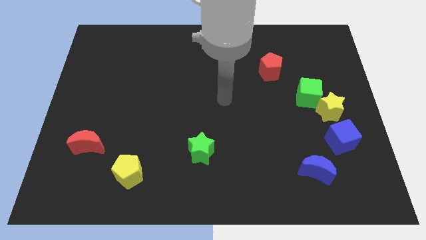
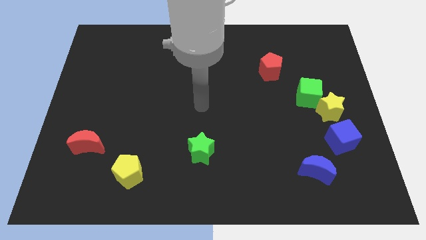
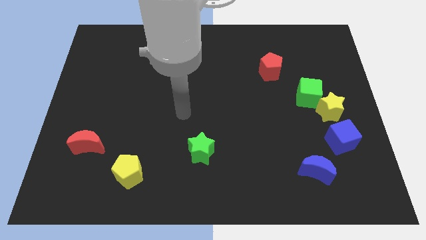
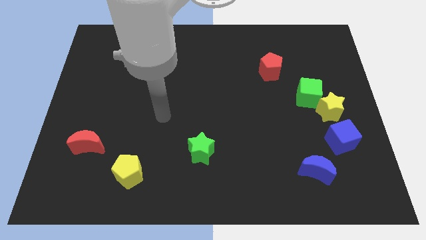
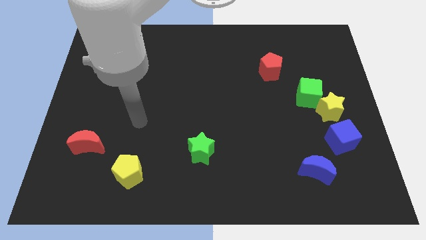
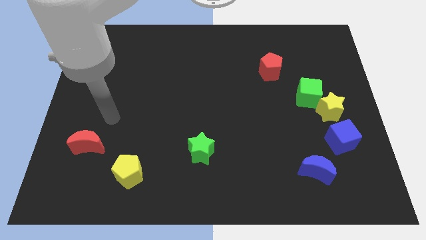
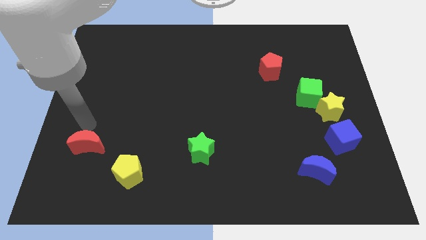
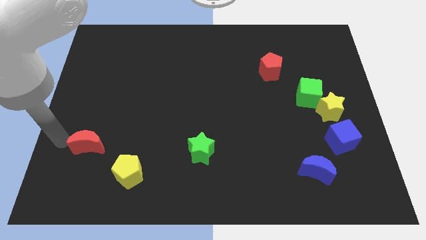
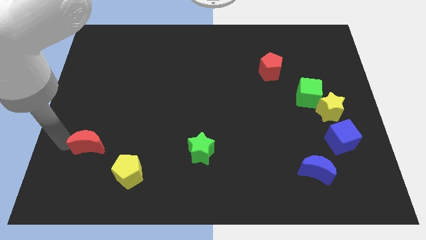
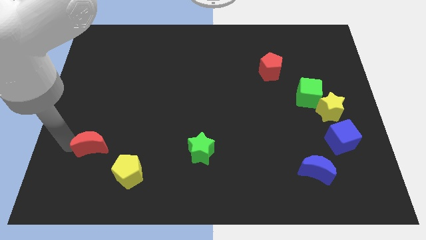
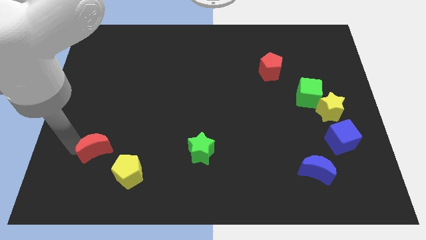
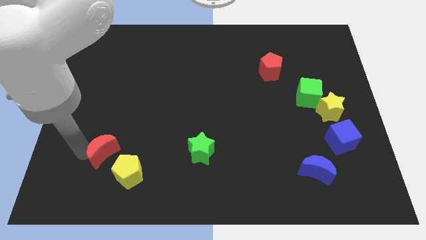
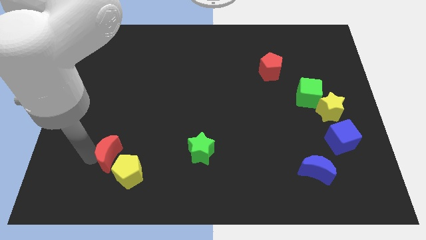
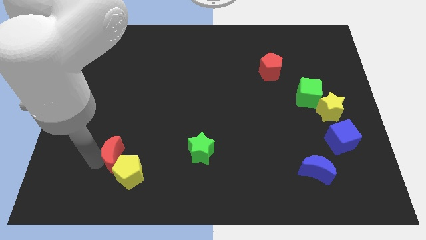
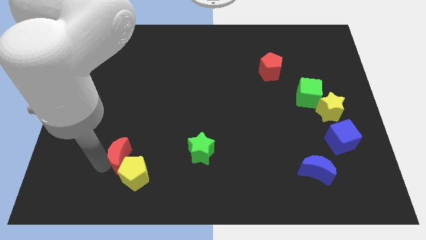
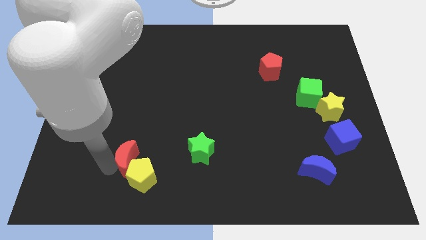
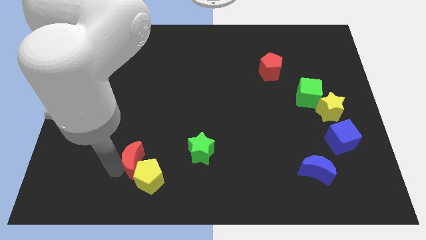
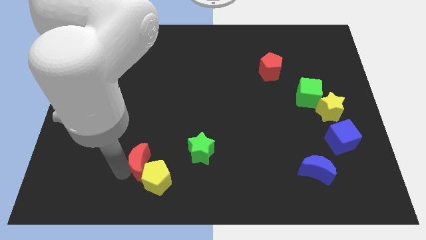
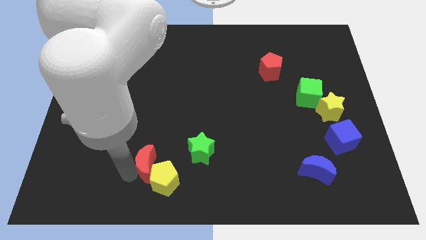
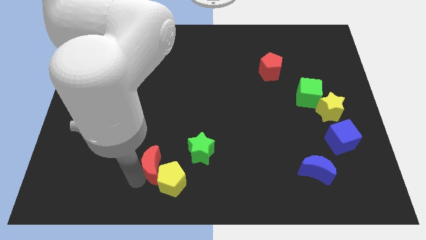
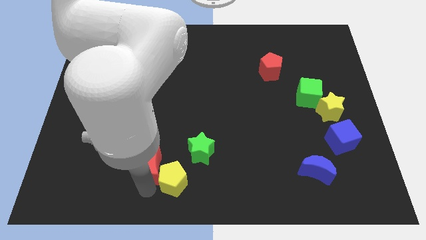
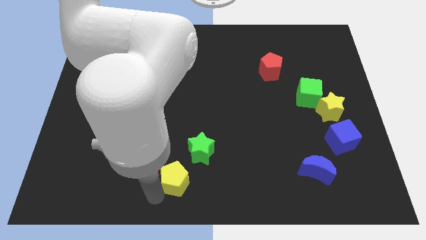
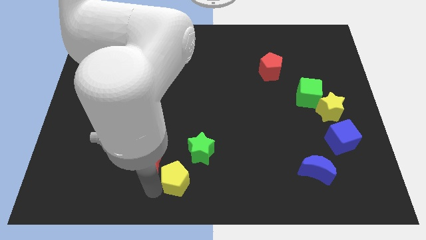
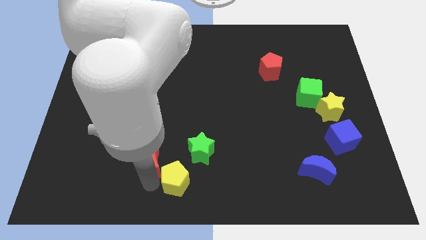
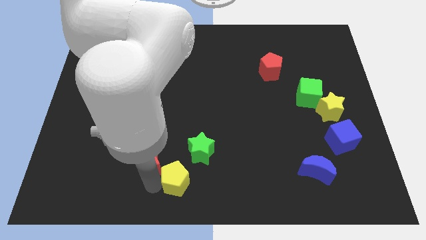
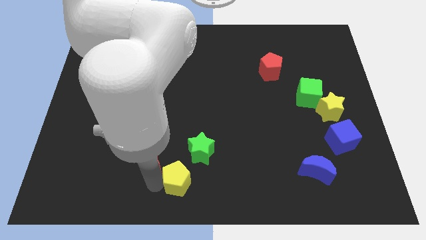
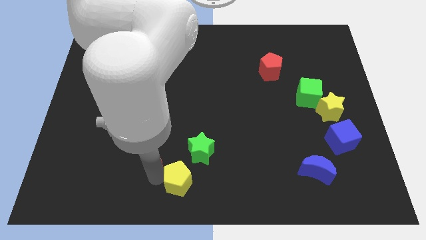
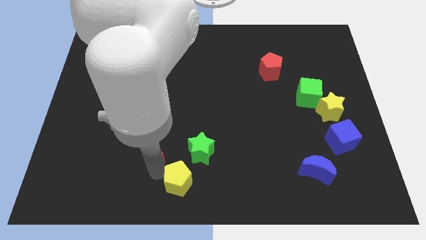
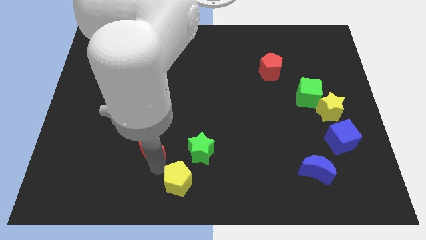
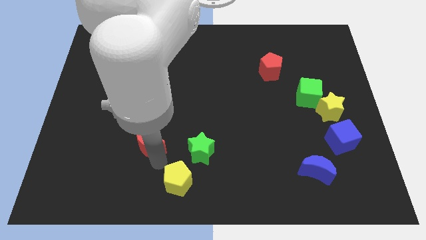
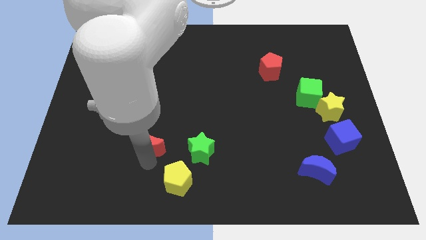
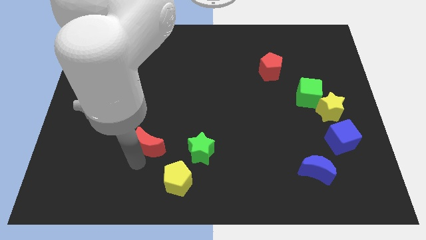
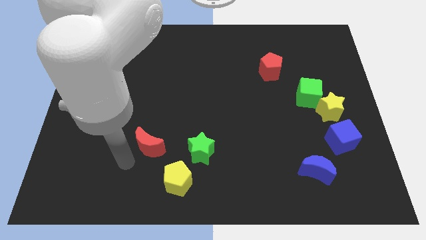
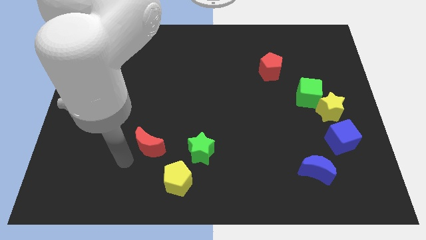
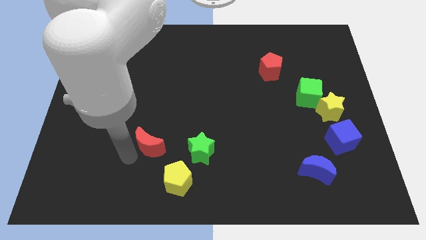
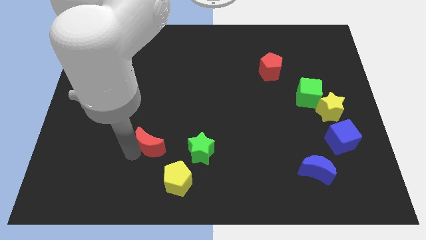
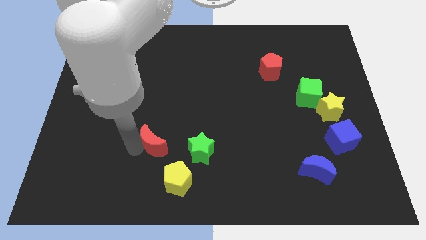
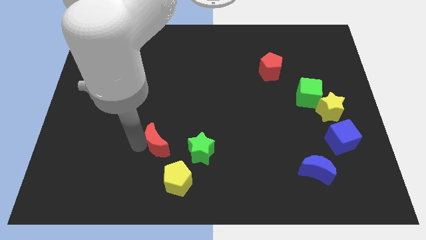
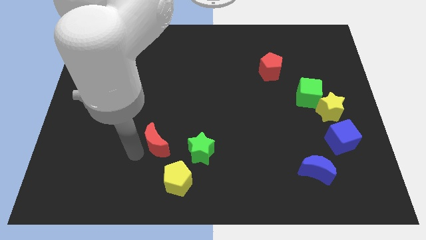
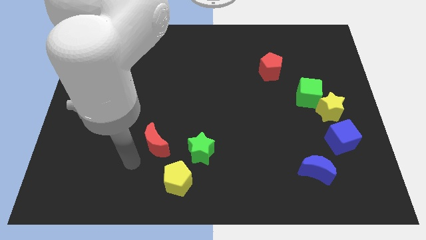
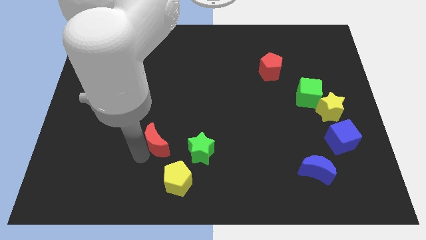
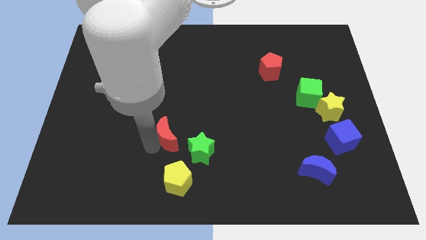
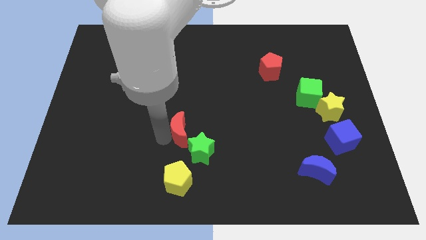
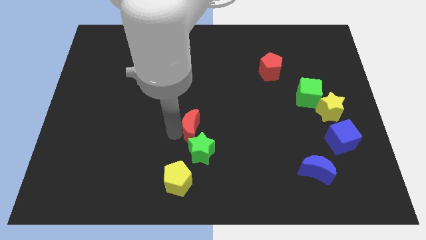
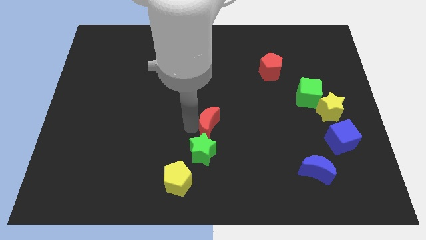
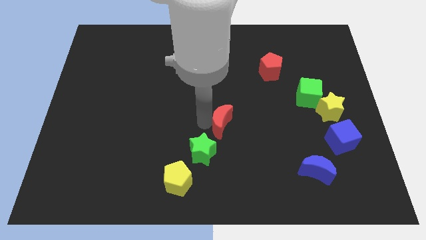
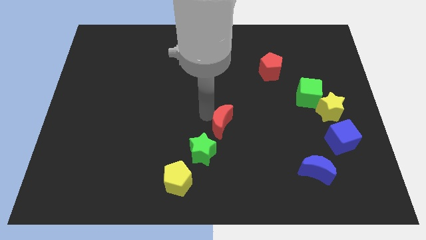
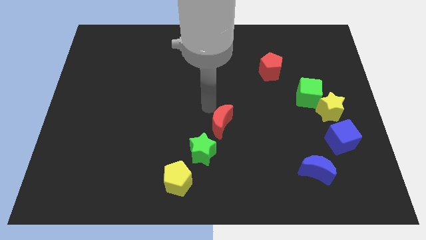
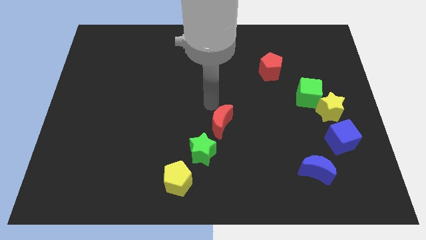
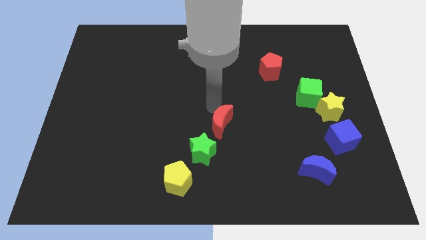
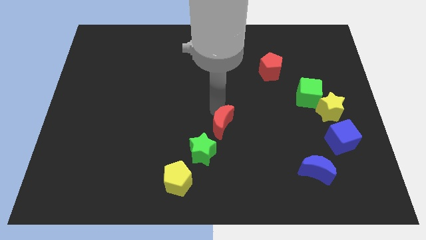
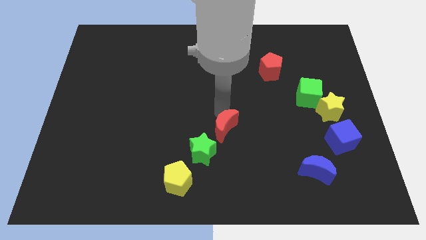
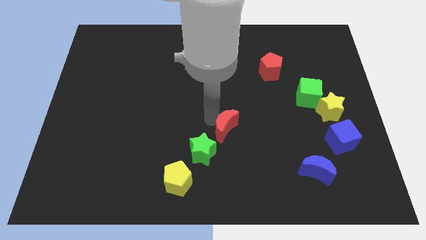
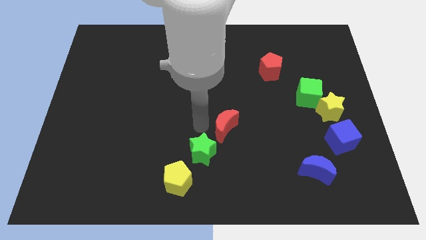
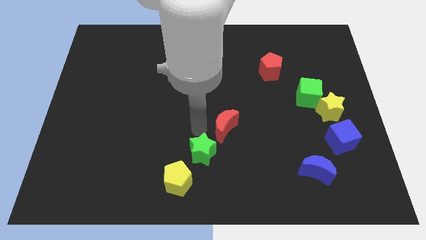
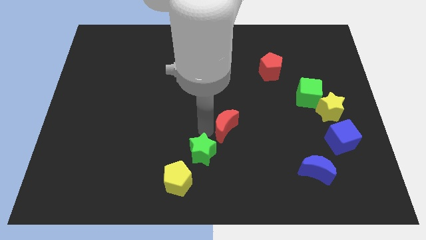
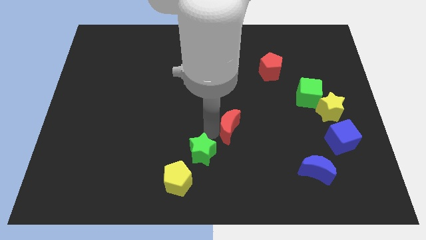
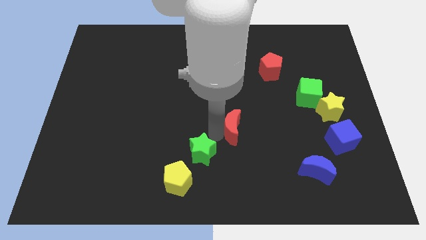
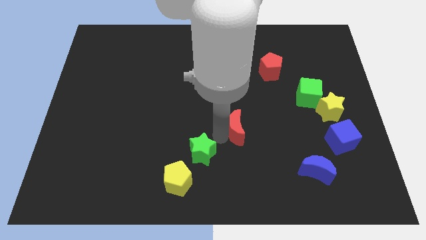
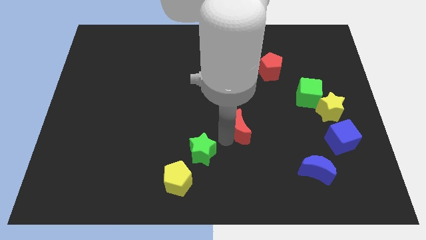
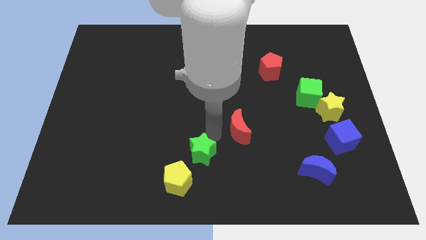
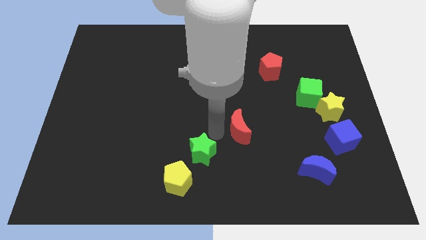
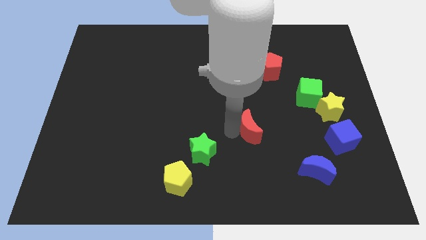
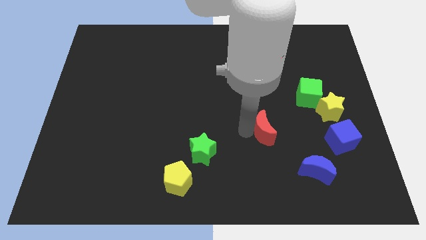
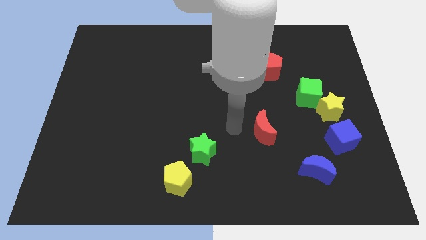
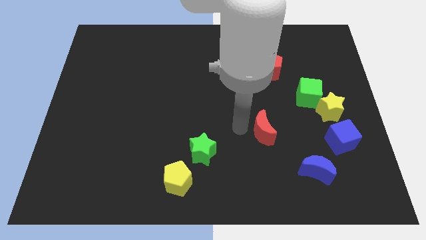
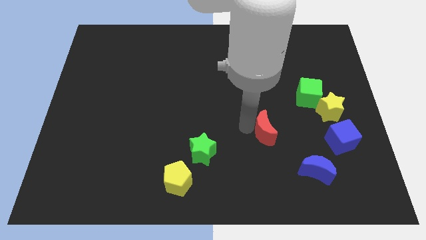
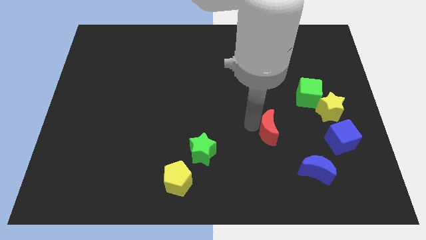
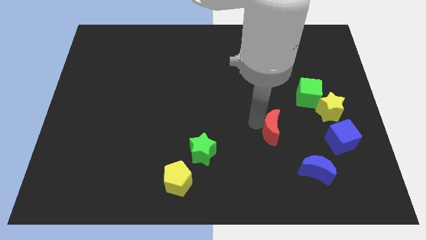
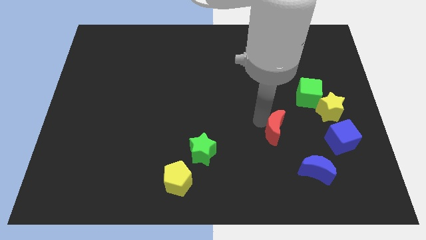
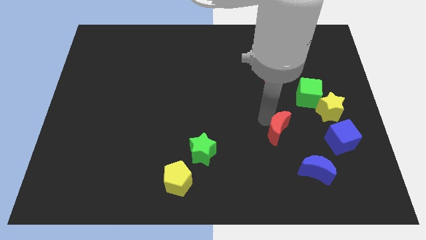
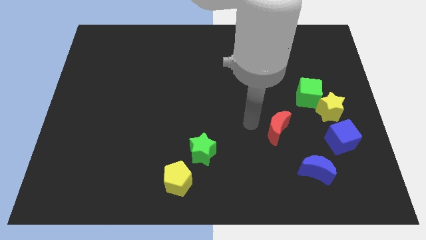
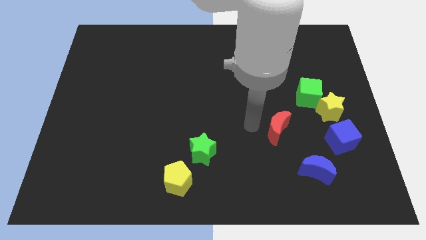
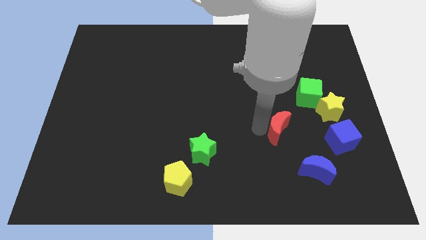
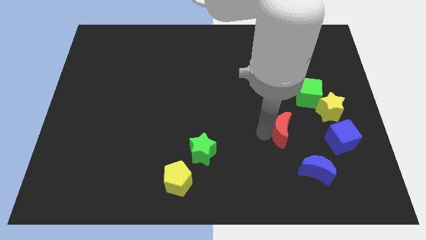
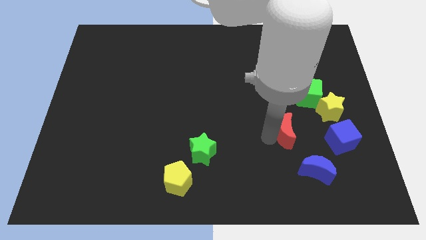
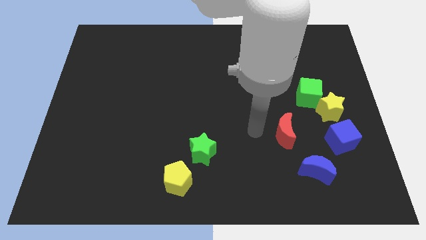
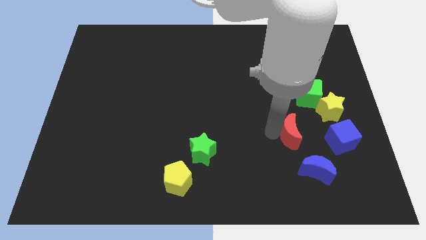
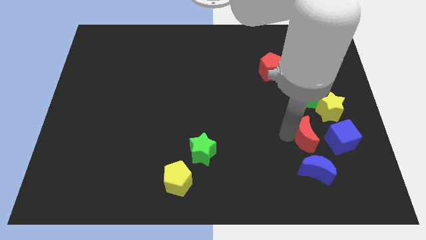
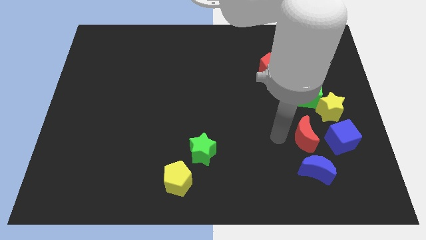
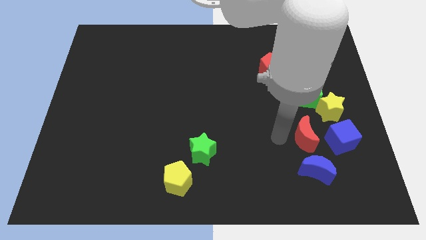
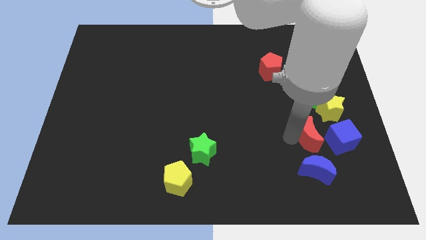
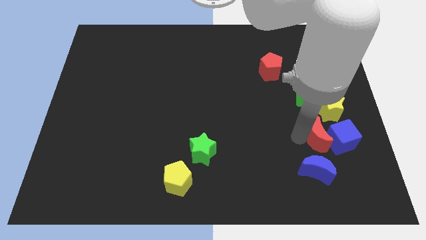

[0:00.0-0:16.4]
slide the red moon close to the blue cube

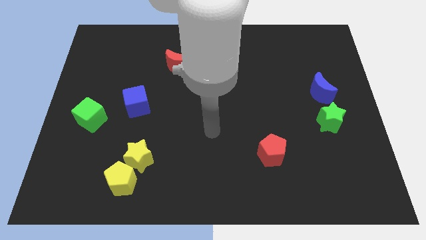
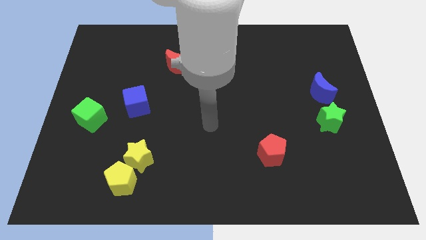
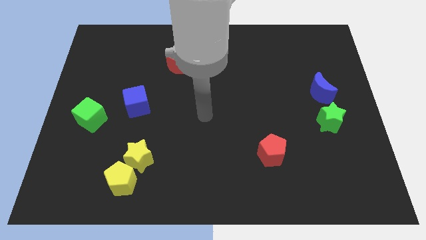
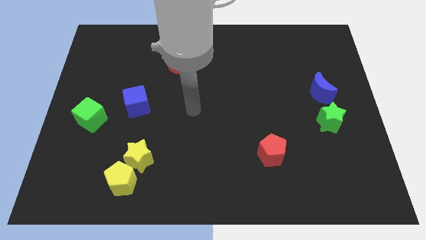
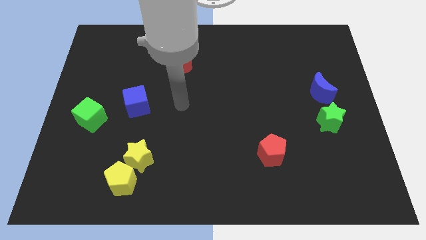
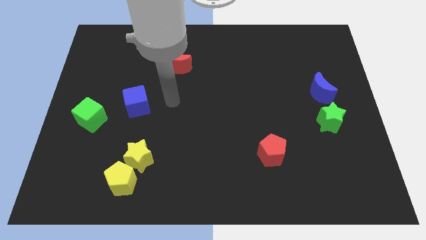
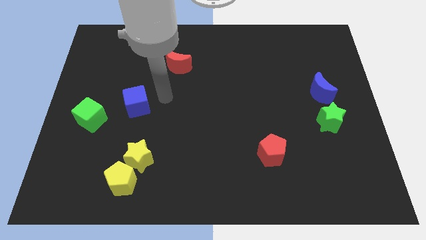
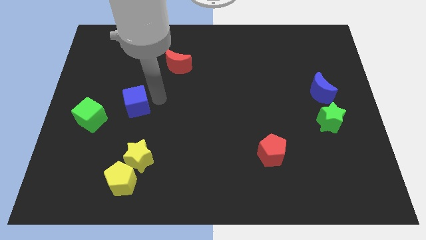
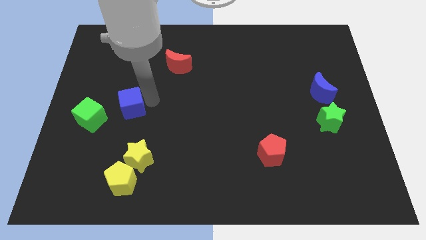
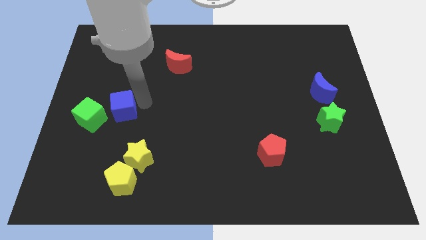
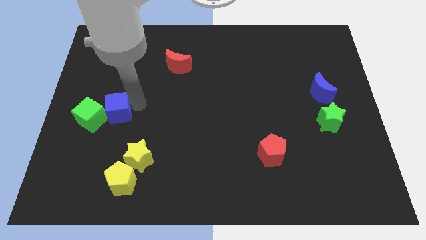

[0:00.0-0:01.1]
slide the blue cube close to the green cube
